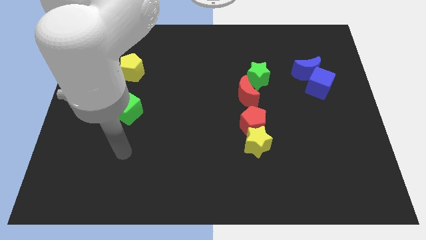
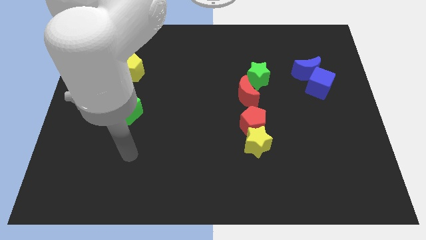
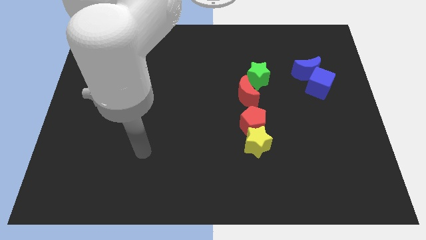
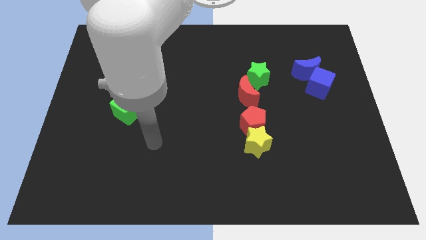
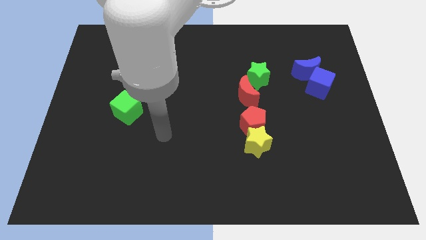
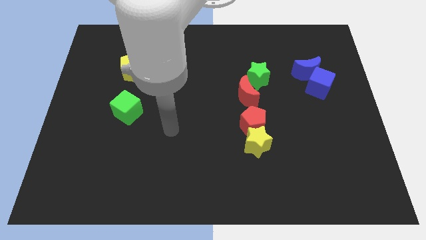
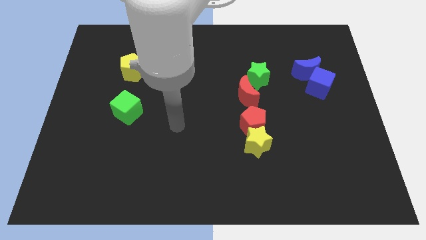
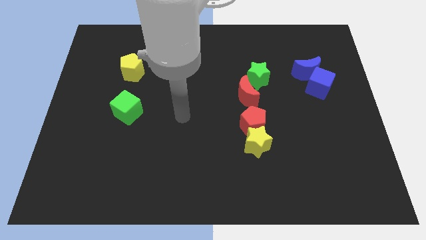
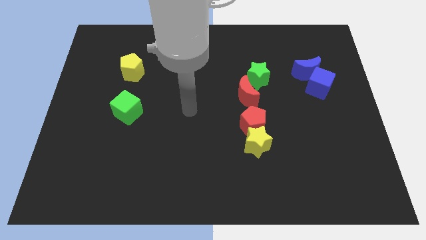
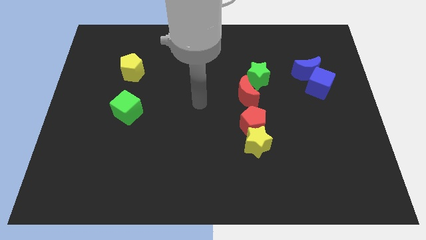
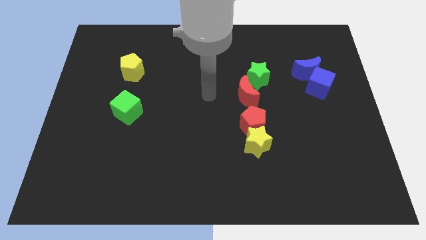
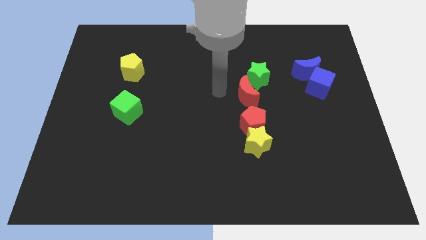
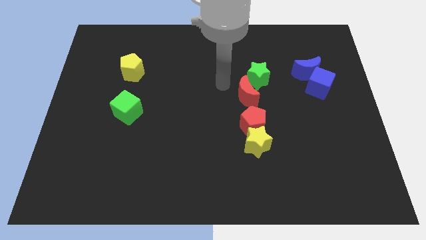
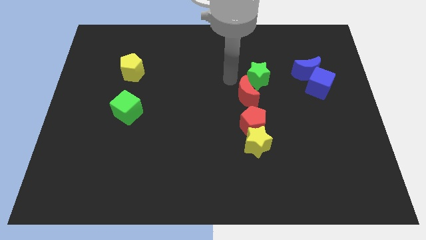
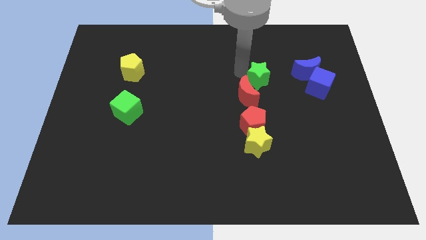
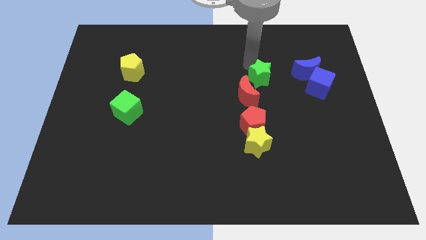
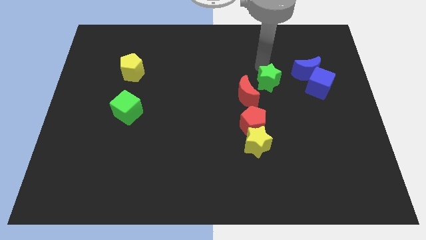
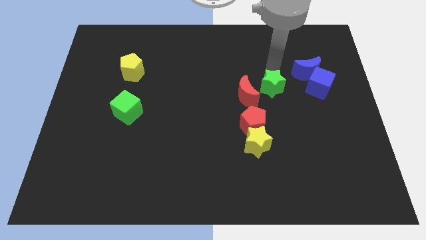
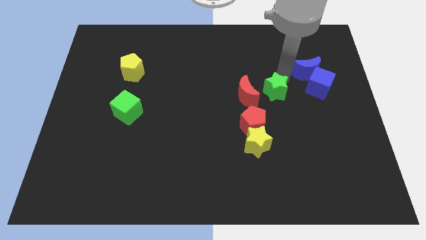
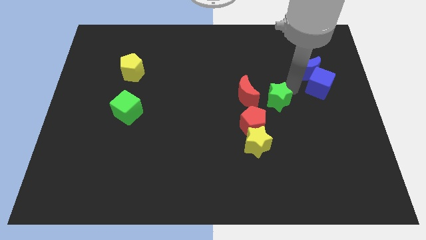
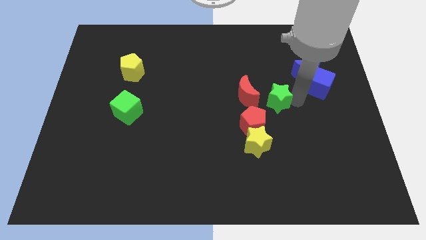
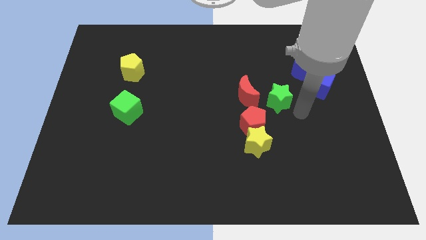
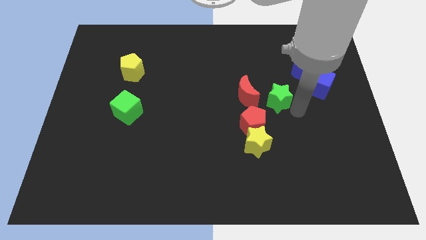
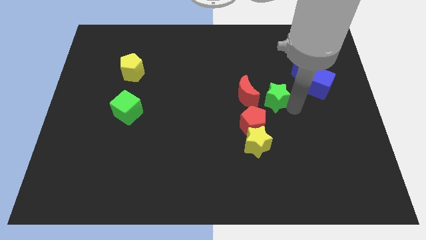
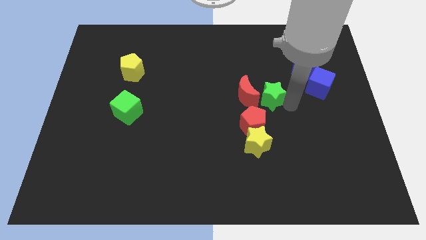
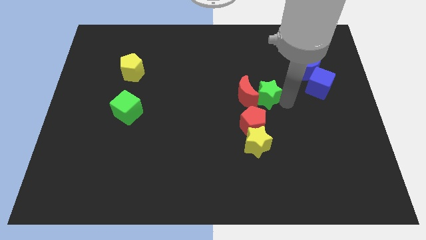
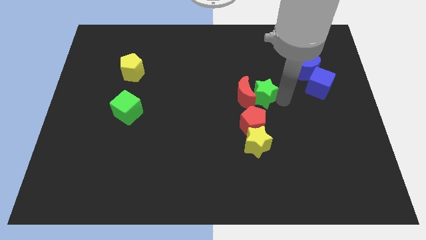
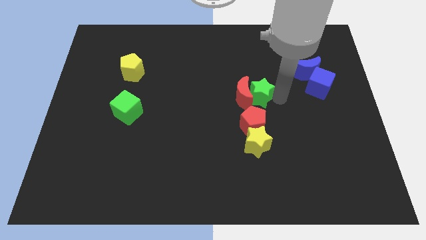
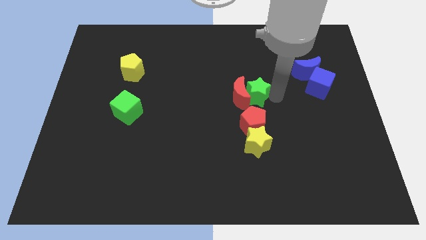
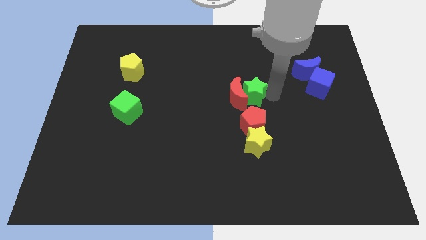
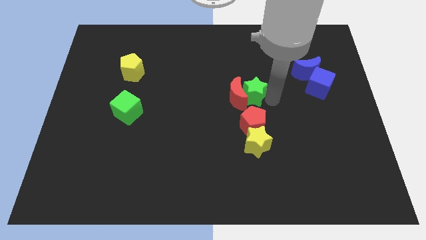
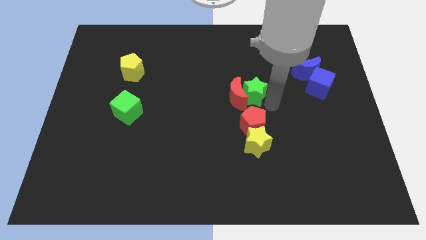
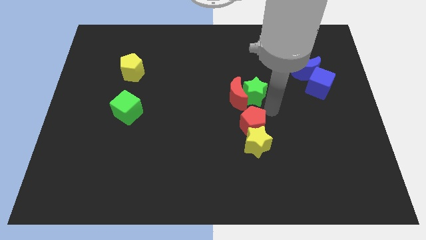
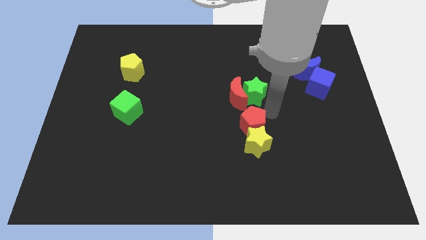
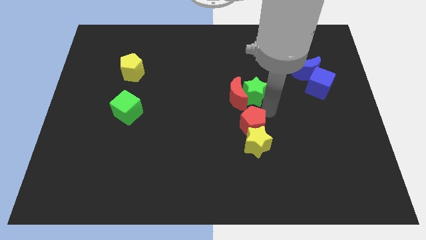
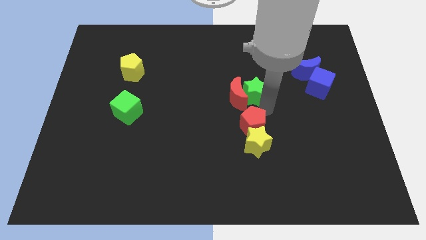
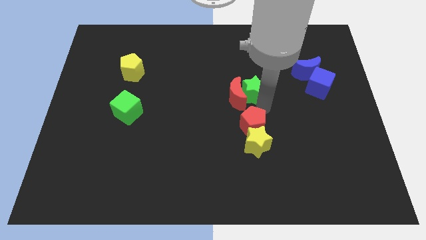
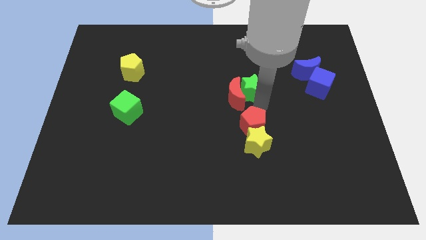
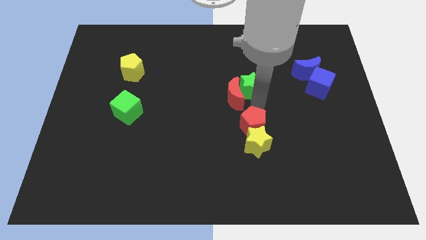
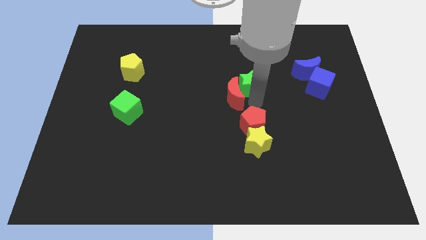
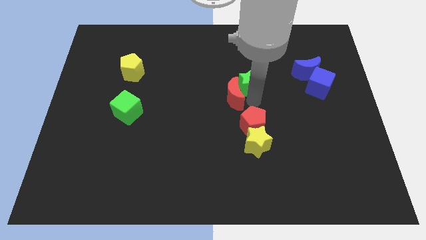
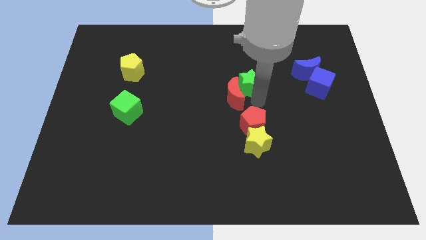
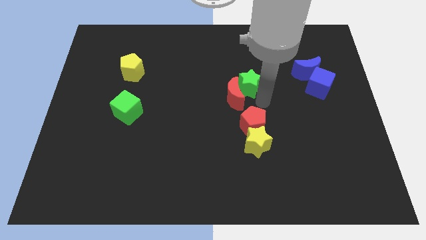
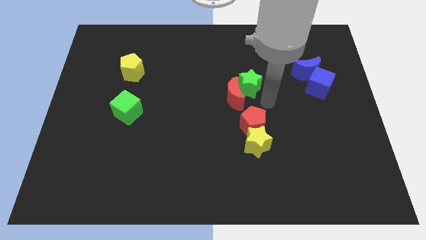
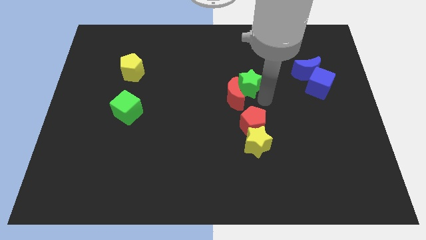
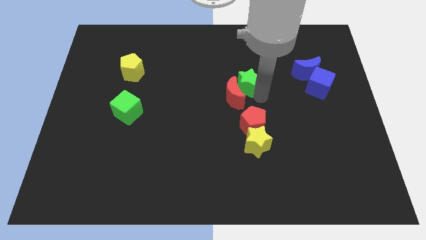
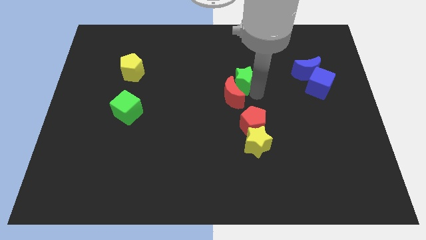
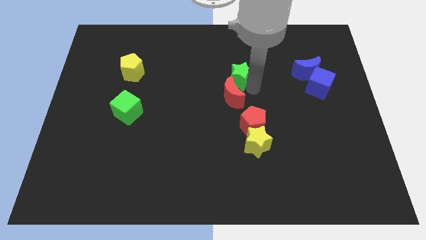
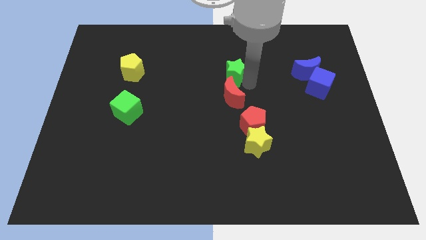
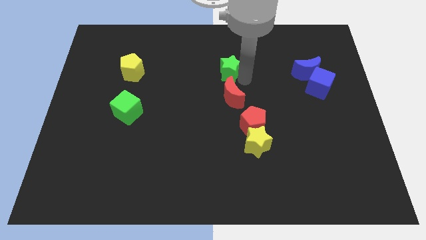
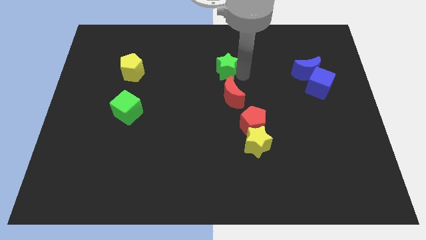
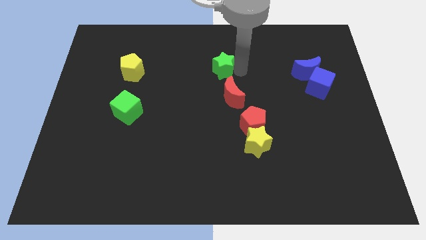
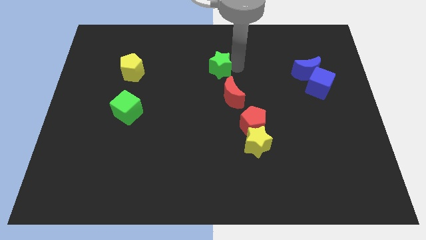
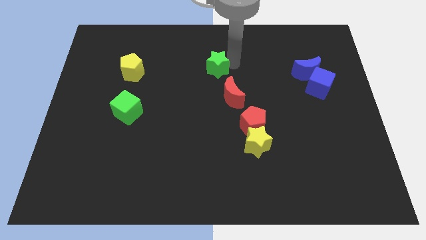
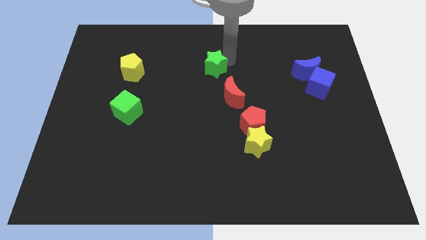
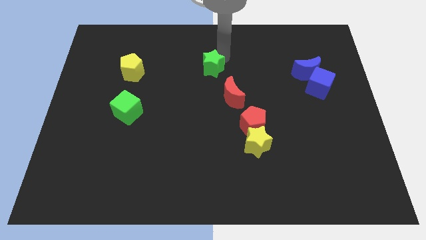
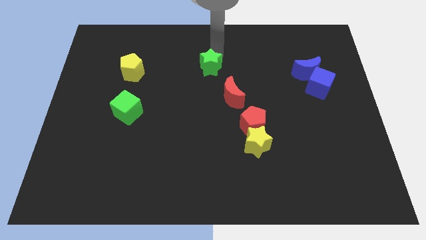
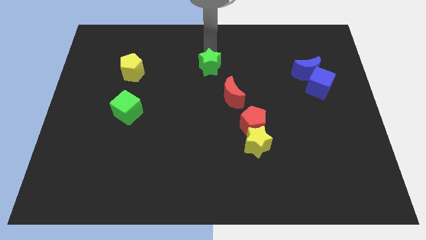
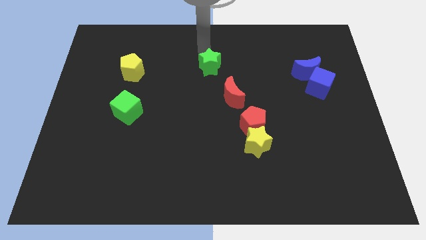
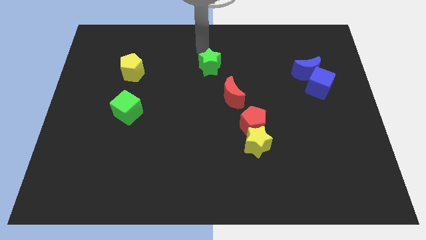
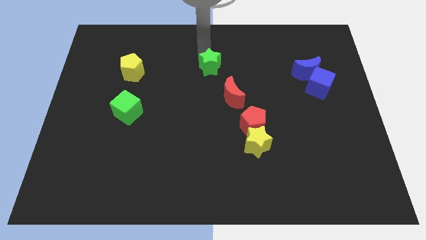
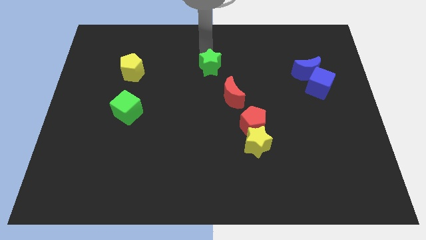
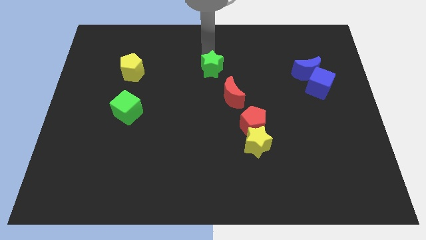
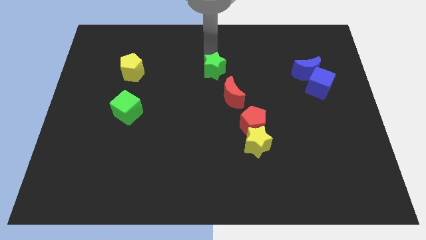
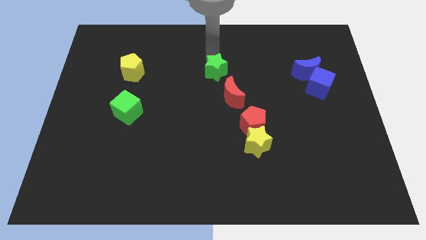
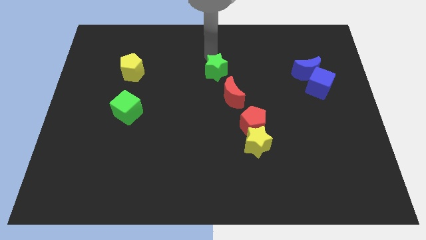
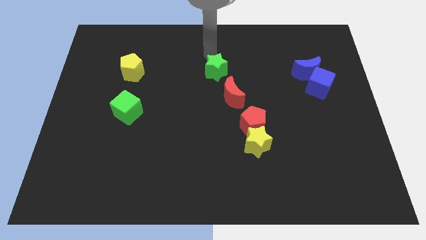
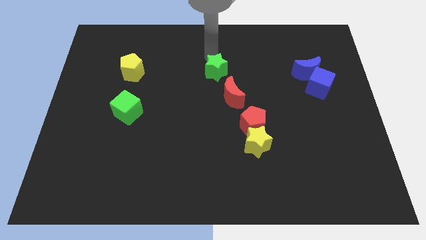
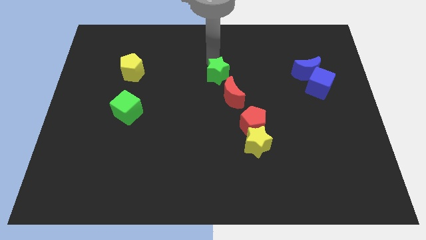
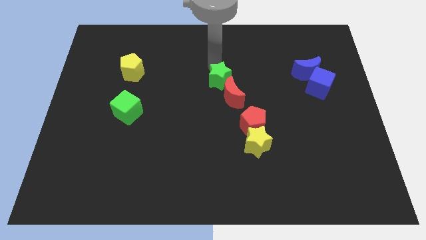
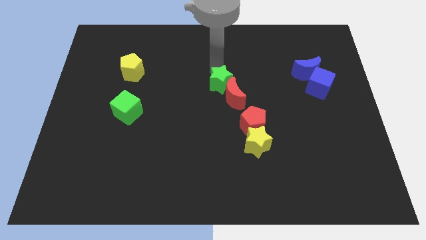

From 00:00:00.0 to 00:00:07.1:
slightly slide the green star down and to the left

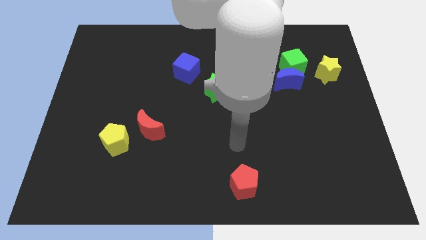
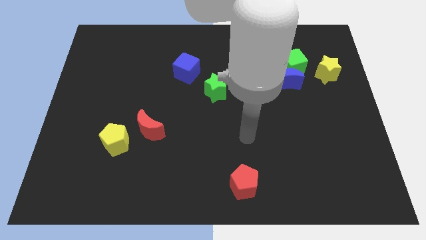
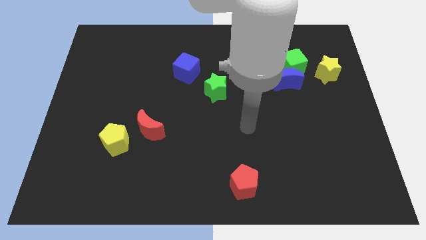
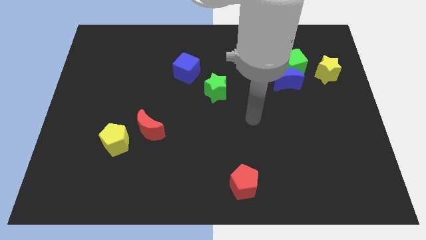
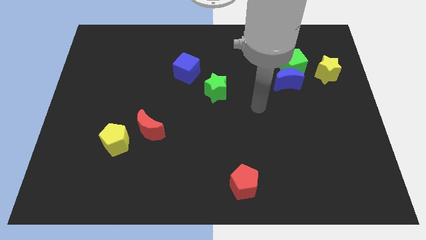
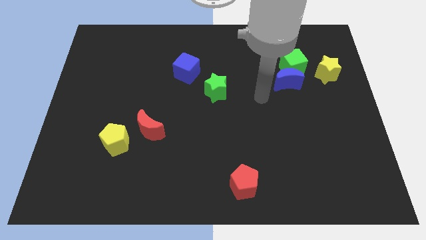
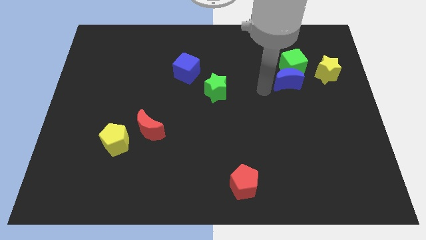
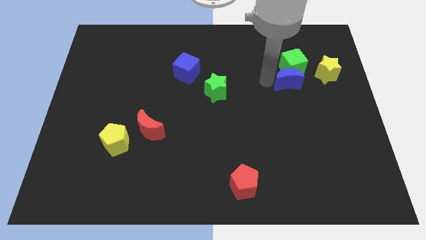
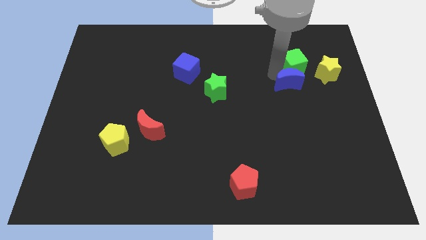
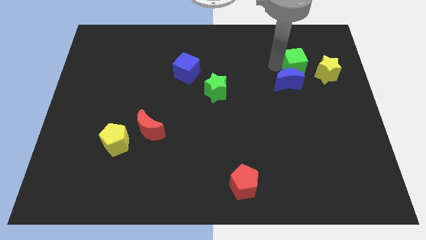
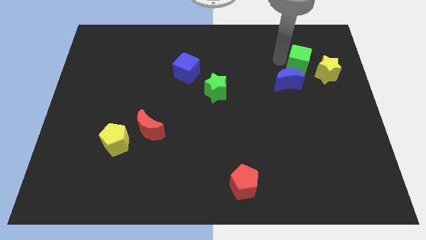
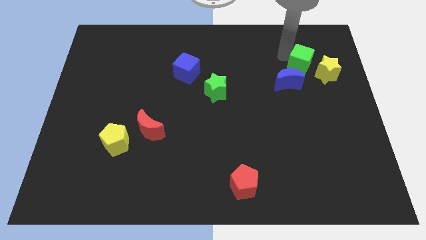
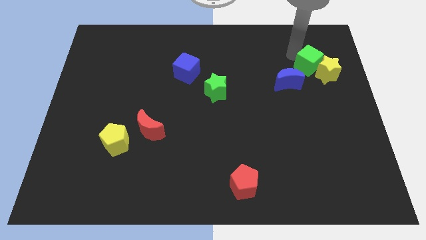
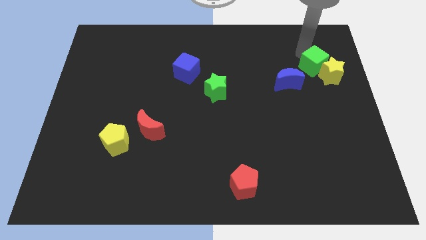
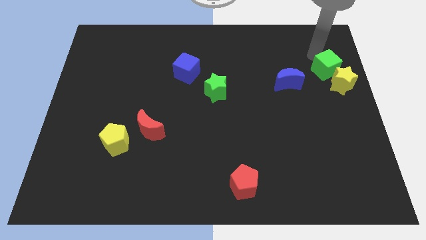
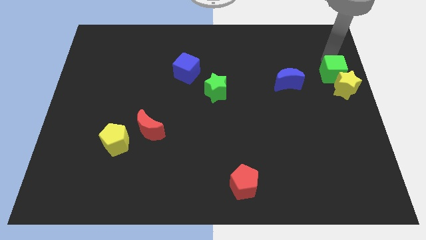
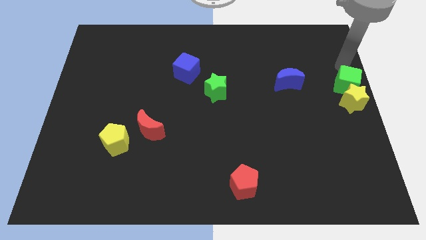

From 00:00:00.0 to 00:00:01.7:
slide the yellow star slightly downwards
